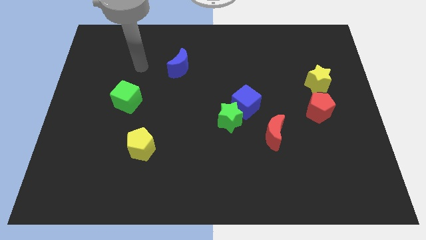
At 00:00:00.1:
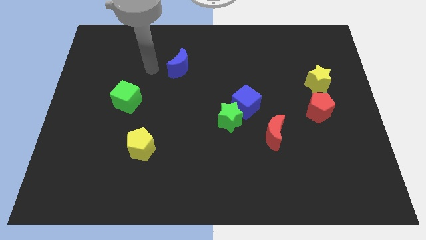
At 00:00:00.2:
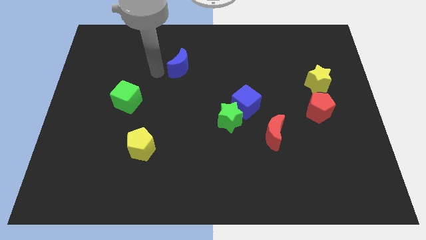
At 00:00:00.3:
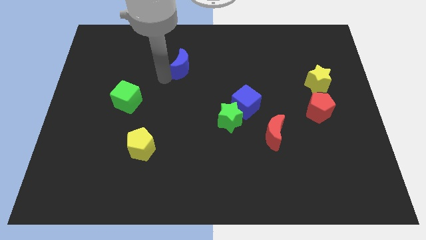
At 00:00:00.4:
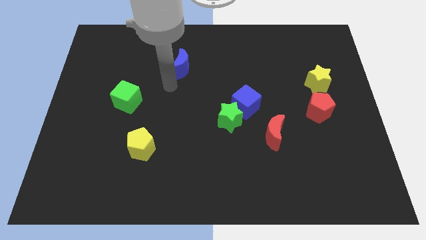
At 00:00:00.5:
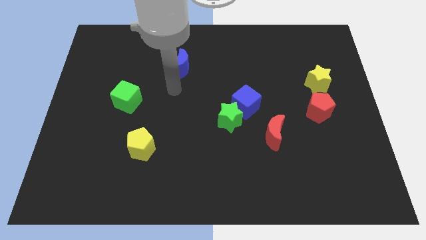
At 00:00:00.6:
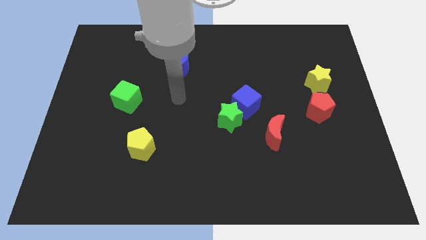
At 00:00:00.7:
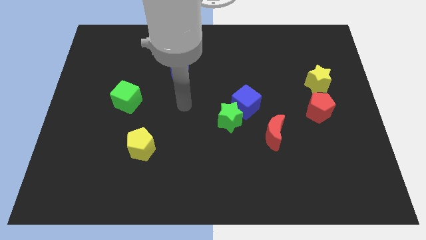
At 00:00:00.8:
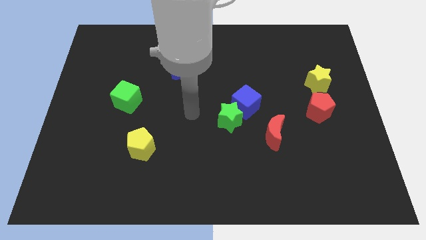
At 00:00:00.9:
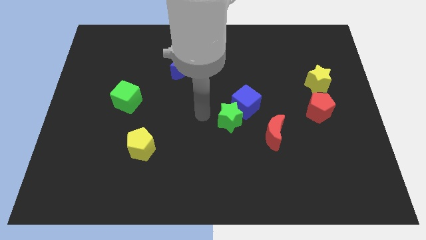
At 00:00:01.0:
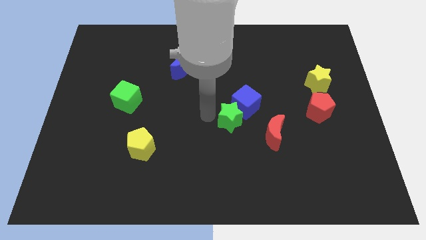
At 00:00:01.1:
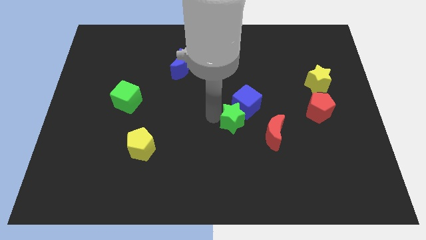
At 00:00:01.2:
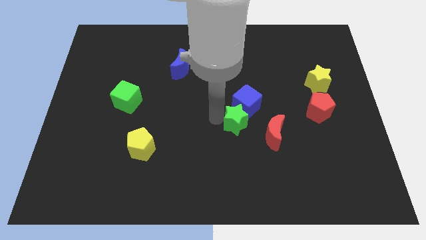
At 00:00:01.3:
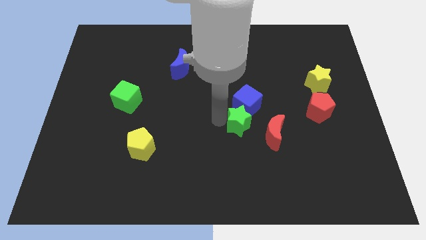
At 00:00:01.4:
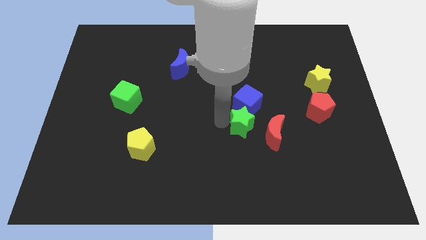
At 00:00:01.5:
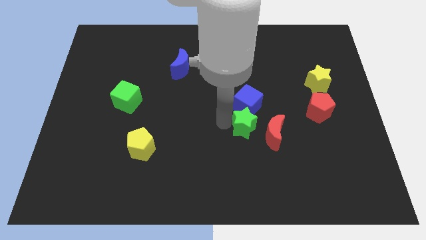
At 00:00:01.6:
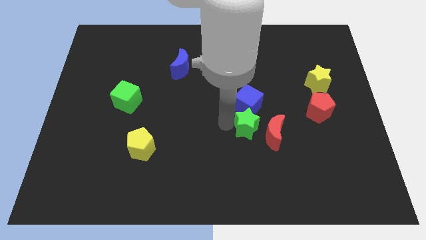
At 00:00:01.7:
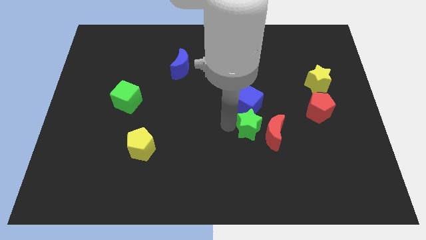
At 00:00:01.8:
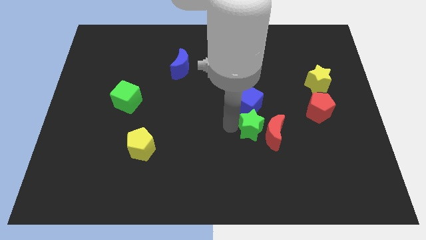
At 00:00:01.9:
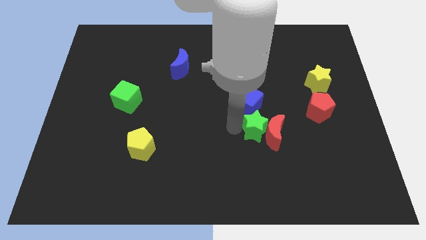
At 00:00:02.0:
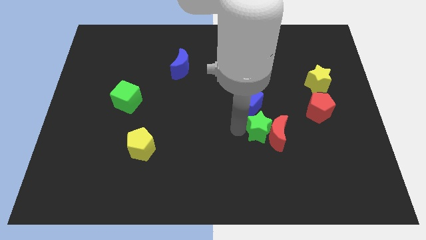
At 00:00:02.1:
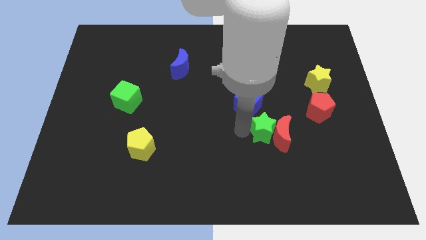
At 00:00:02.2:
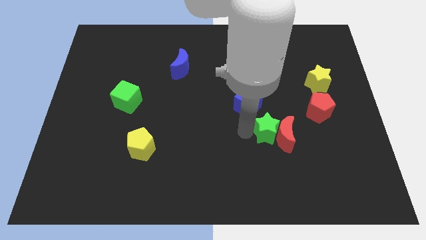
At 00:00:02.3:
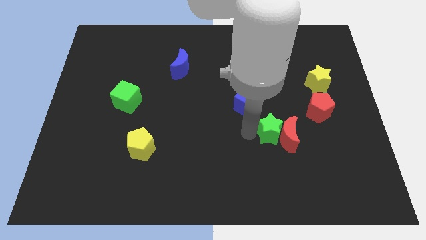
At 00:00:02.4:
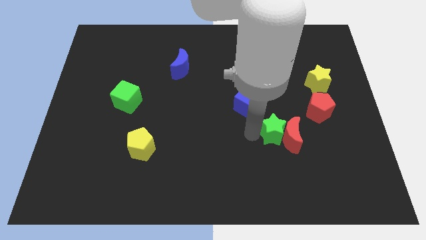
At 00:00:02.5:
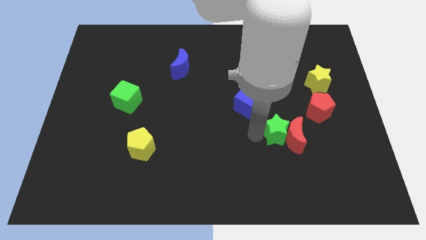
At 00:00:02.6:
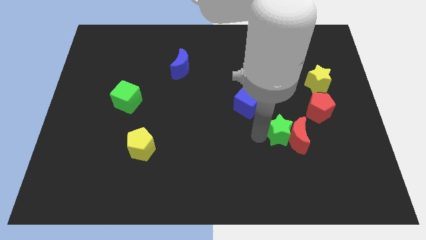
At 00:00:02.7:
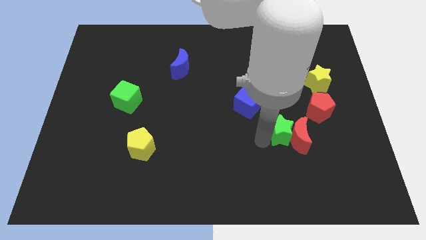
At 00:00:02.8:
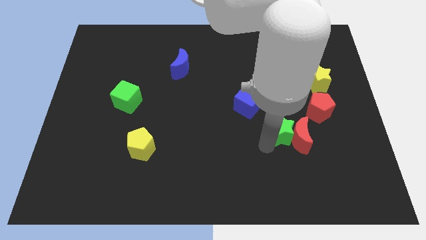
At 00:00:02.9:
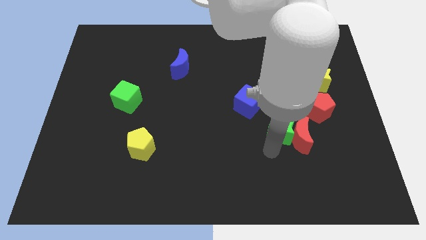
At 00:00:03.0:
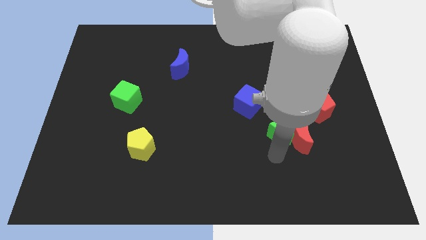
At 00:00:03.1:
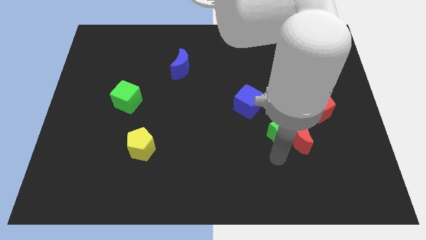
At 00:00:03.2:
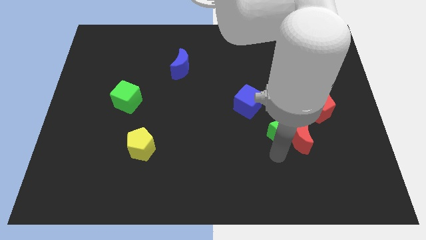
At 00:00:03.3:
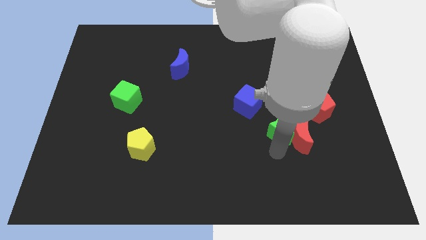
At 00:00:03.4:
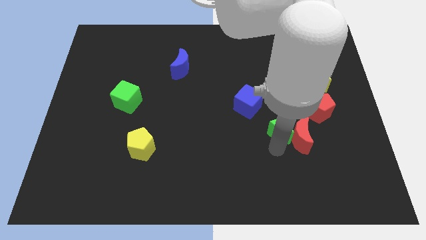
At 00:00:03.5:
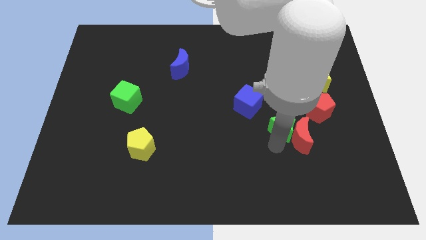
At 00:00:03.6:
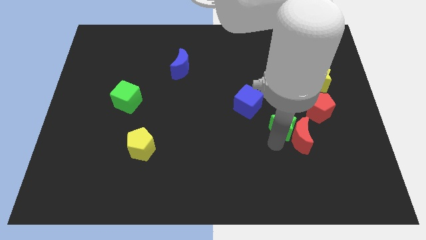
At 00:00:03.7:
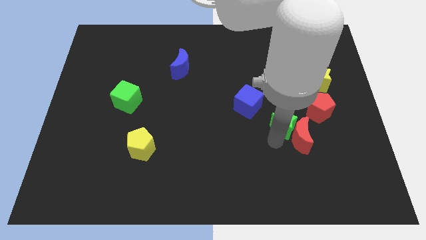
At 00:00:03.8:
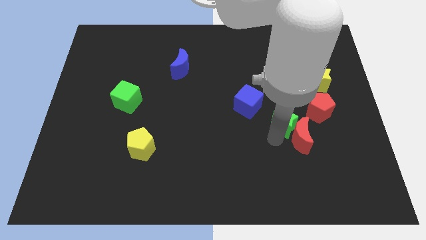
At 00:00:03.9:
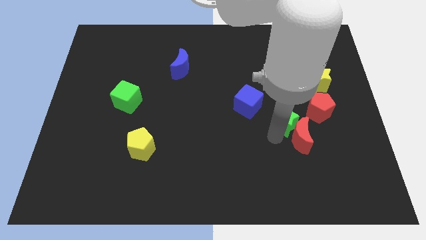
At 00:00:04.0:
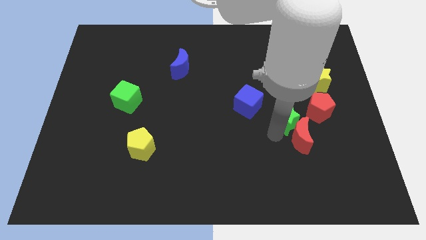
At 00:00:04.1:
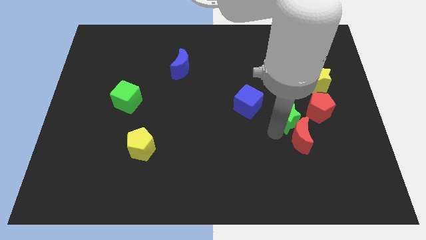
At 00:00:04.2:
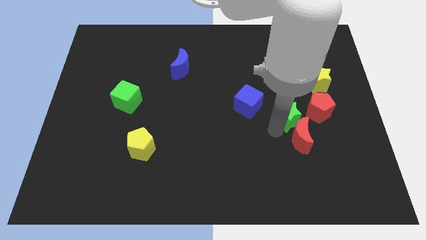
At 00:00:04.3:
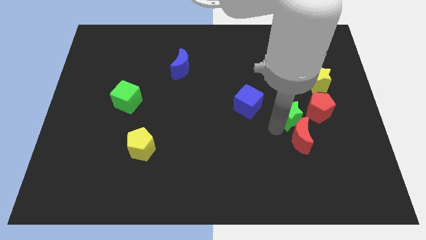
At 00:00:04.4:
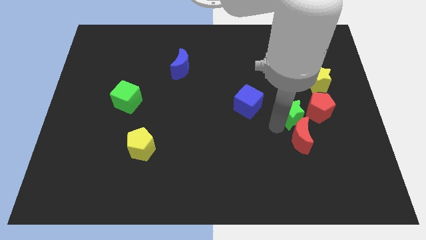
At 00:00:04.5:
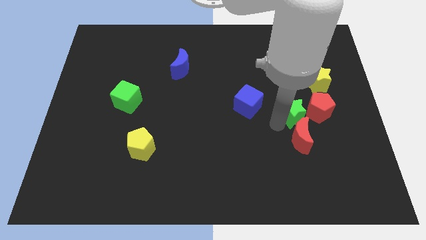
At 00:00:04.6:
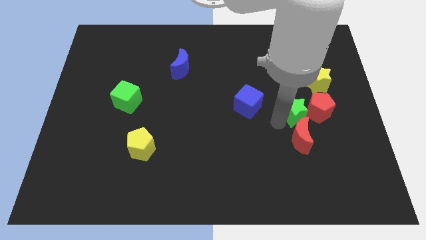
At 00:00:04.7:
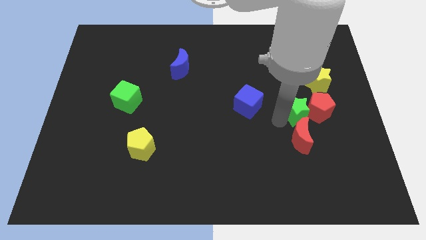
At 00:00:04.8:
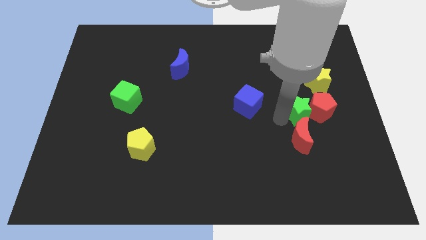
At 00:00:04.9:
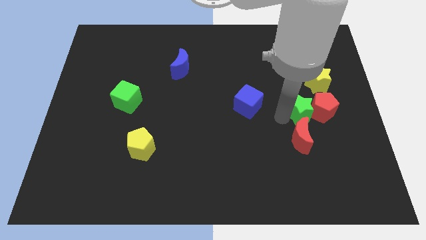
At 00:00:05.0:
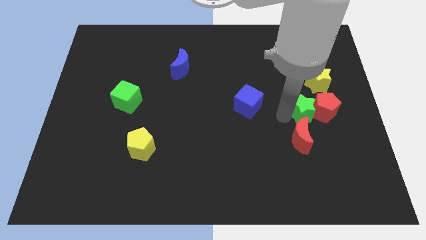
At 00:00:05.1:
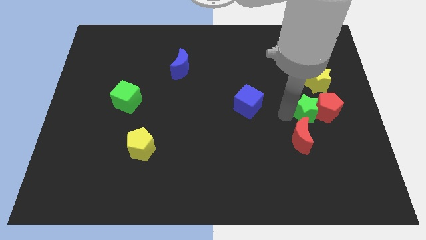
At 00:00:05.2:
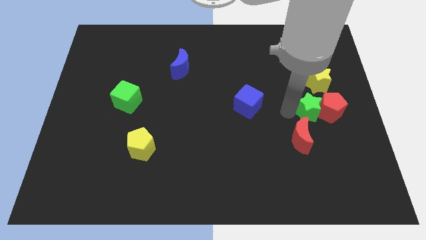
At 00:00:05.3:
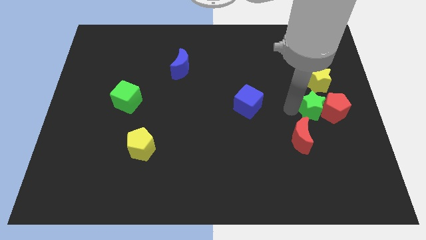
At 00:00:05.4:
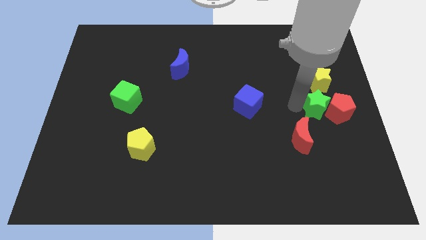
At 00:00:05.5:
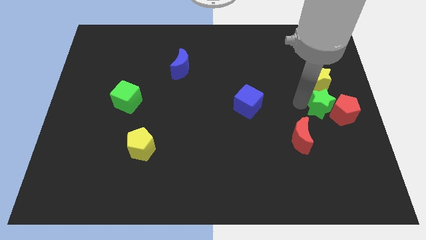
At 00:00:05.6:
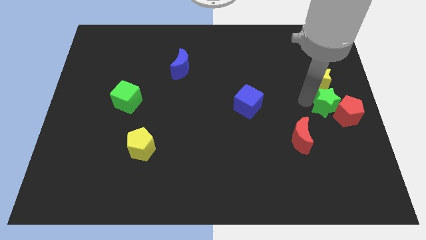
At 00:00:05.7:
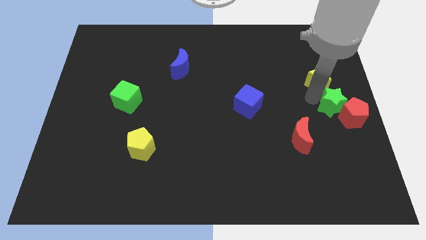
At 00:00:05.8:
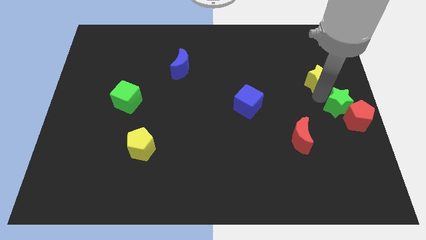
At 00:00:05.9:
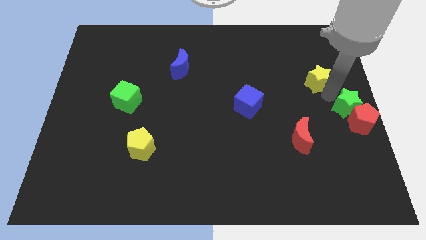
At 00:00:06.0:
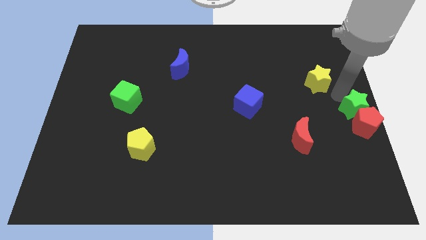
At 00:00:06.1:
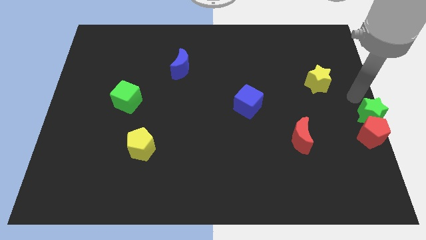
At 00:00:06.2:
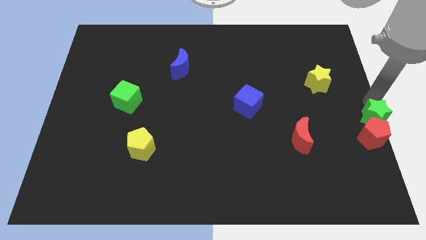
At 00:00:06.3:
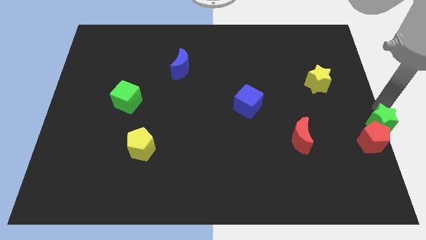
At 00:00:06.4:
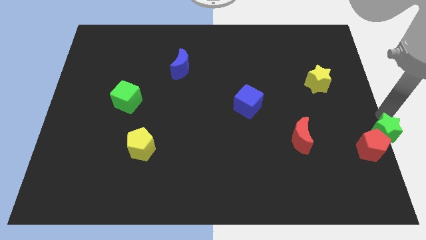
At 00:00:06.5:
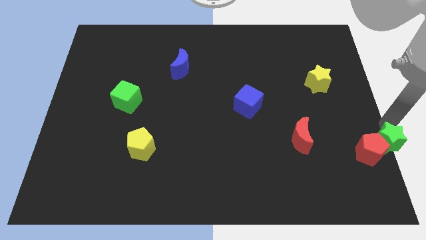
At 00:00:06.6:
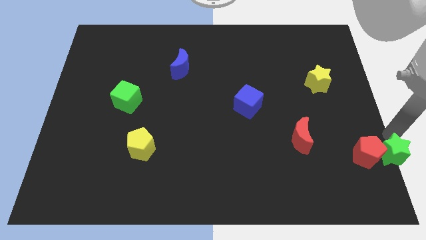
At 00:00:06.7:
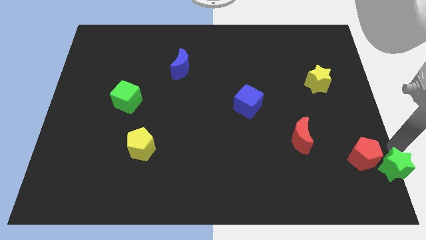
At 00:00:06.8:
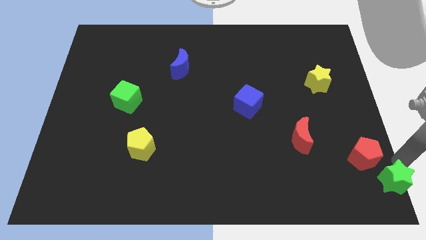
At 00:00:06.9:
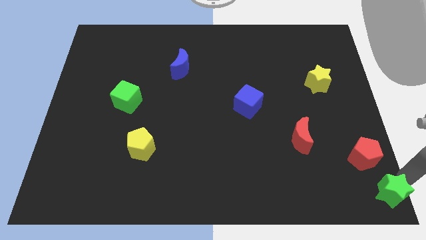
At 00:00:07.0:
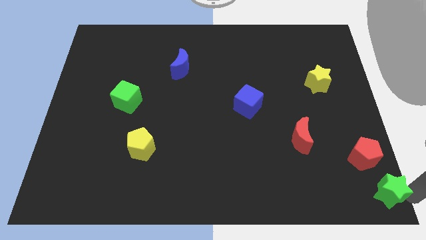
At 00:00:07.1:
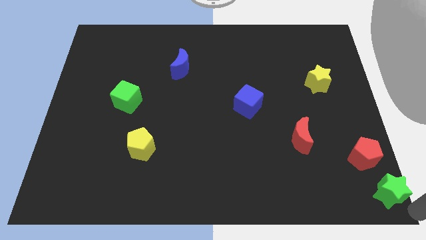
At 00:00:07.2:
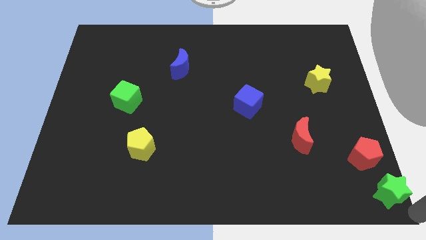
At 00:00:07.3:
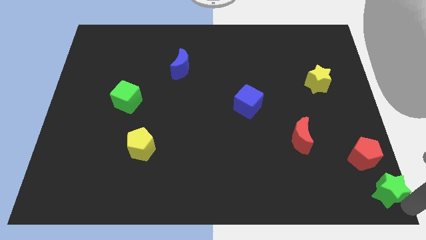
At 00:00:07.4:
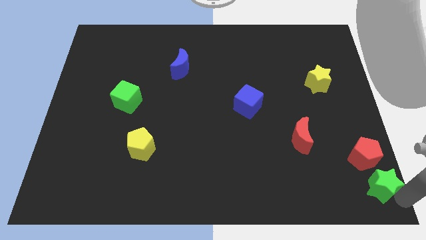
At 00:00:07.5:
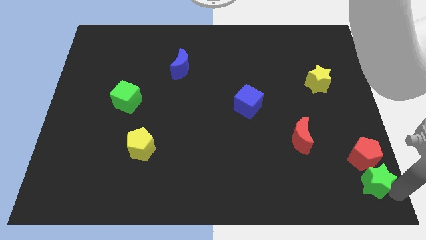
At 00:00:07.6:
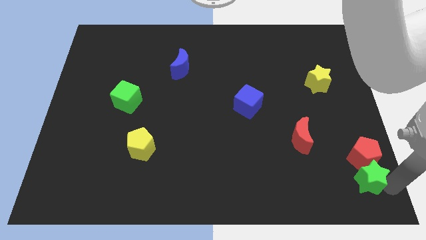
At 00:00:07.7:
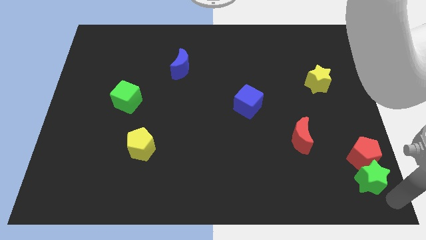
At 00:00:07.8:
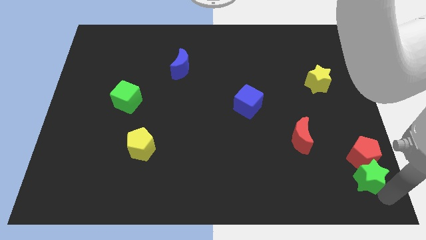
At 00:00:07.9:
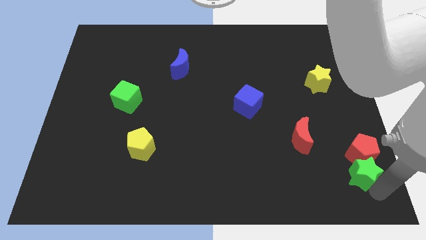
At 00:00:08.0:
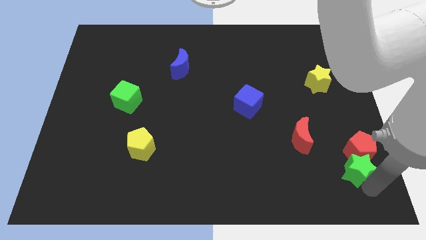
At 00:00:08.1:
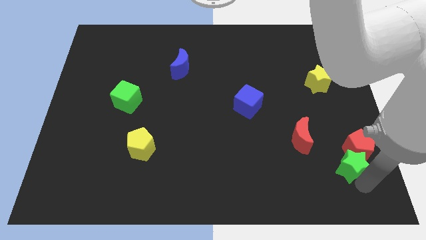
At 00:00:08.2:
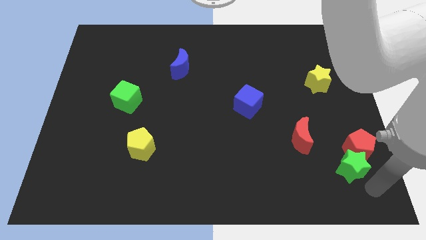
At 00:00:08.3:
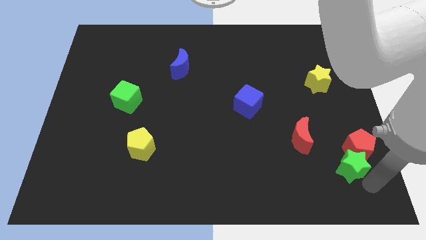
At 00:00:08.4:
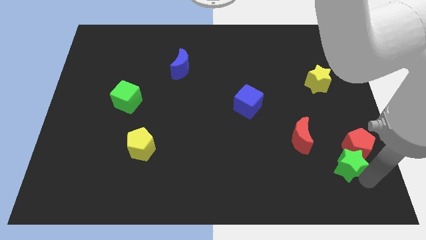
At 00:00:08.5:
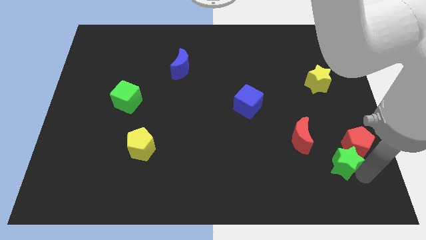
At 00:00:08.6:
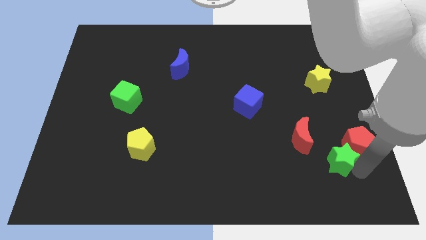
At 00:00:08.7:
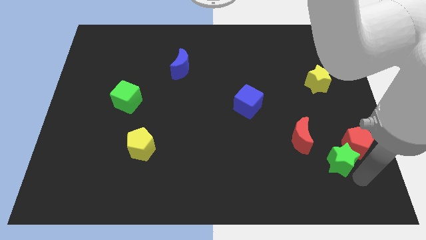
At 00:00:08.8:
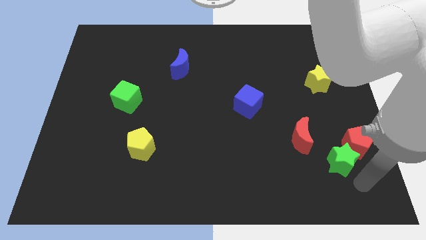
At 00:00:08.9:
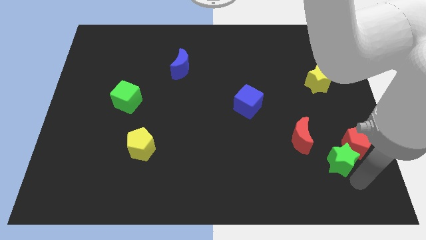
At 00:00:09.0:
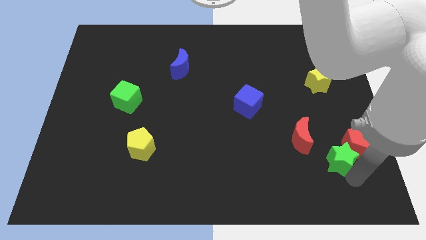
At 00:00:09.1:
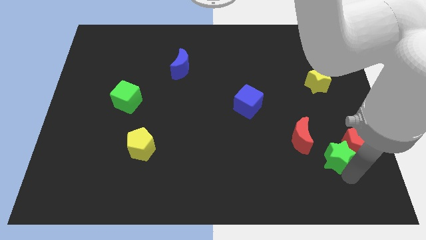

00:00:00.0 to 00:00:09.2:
put the green star to the right side of the red moon
